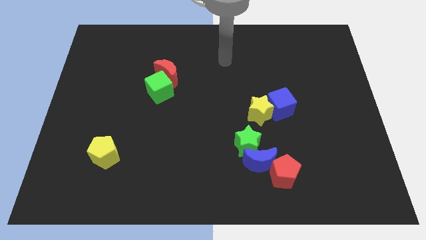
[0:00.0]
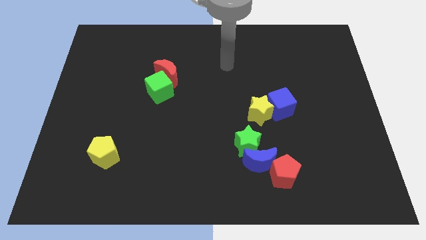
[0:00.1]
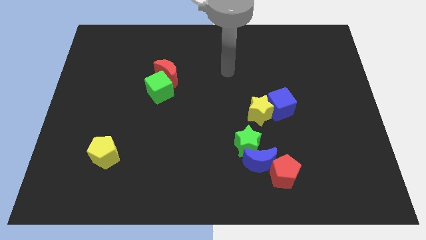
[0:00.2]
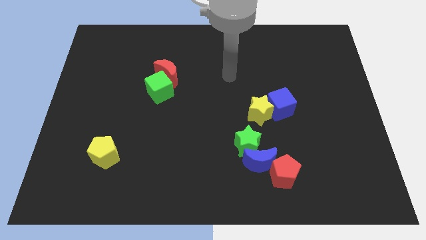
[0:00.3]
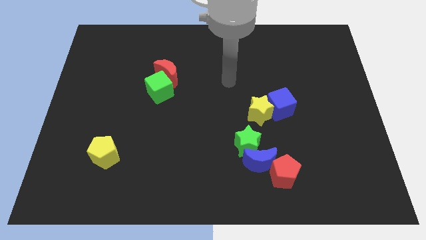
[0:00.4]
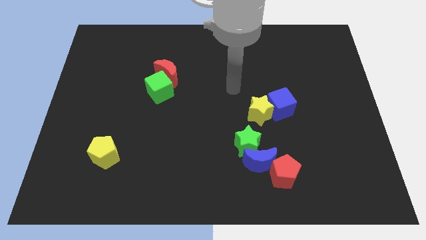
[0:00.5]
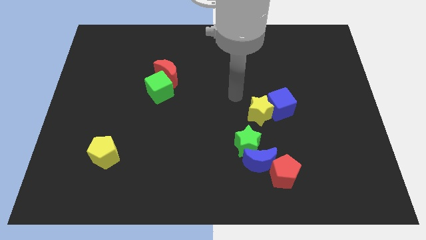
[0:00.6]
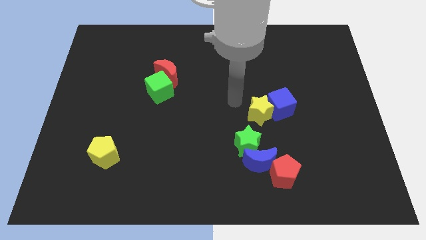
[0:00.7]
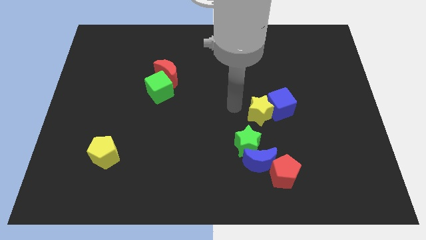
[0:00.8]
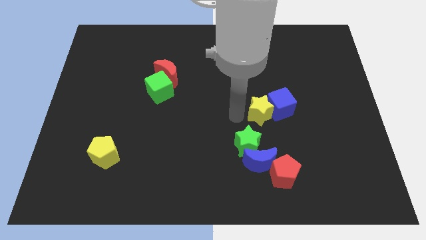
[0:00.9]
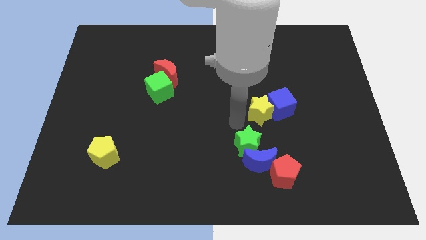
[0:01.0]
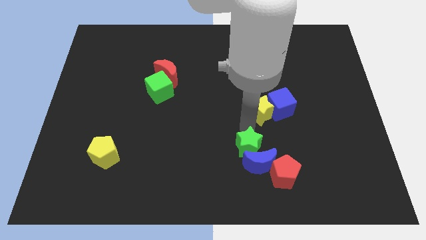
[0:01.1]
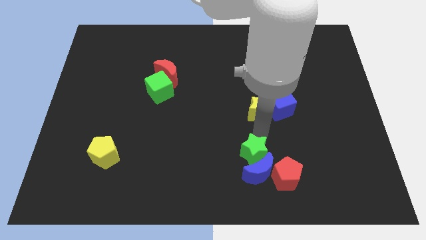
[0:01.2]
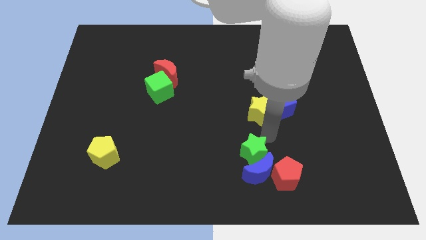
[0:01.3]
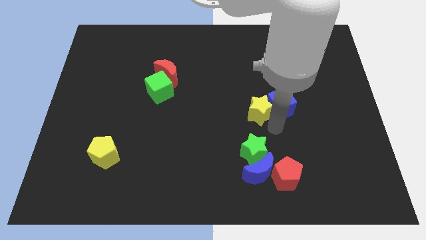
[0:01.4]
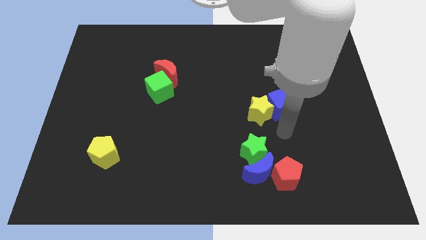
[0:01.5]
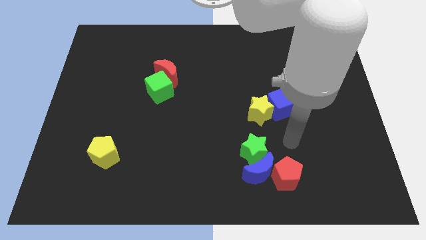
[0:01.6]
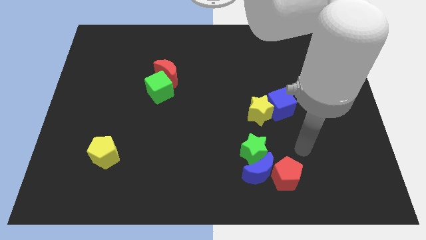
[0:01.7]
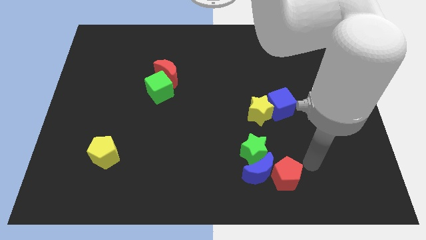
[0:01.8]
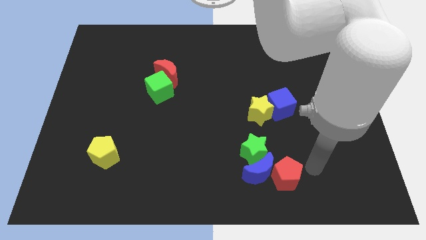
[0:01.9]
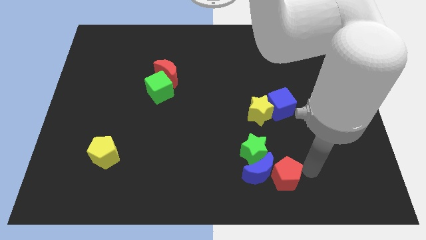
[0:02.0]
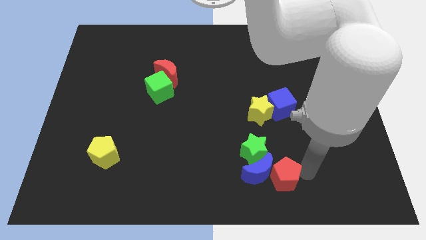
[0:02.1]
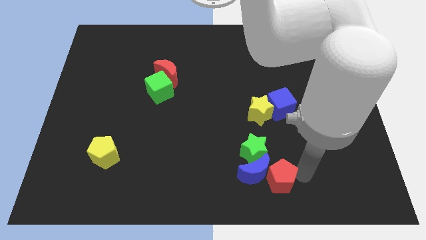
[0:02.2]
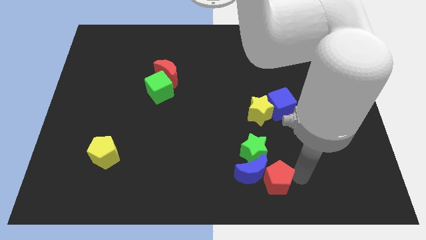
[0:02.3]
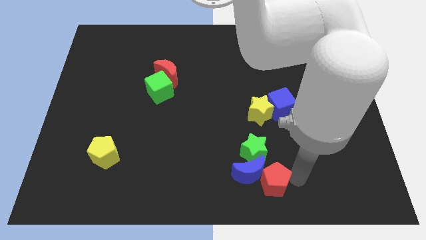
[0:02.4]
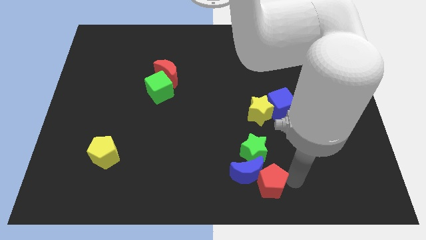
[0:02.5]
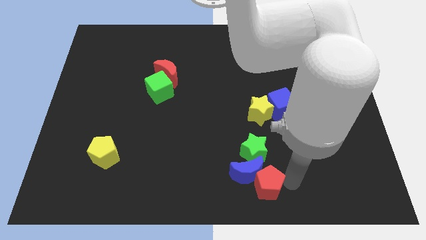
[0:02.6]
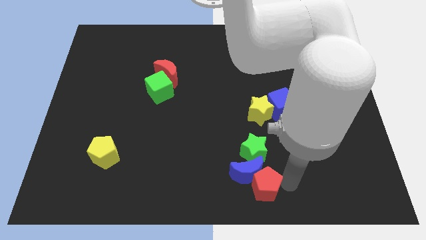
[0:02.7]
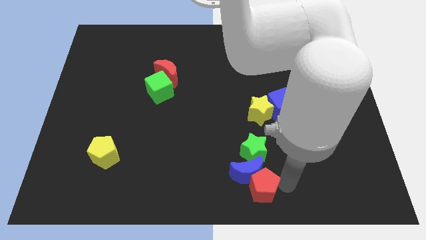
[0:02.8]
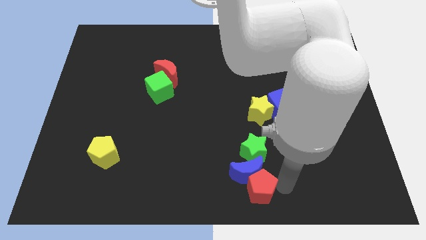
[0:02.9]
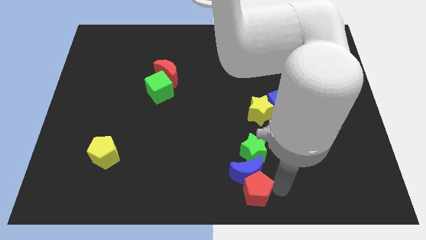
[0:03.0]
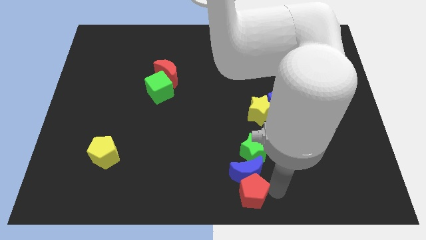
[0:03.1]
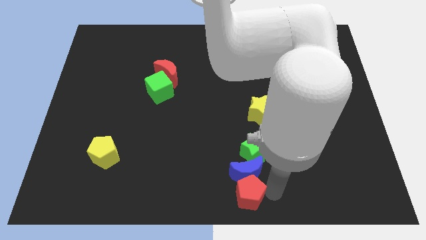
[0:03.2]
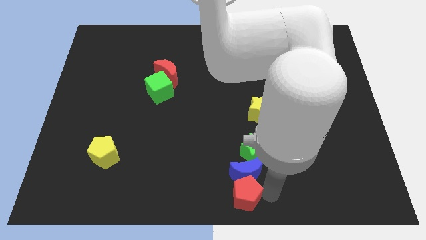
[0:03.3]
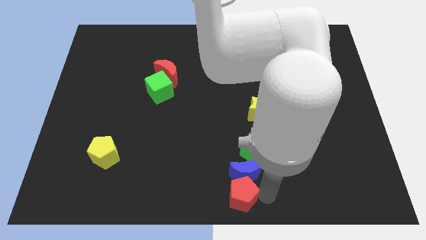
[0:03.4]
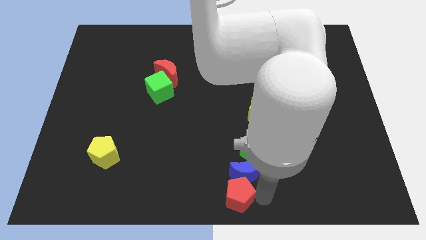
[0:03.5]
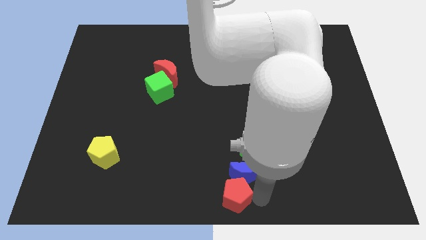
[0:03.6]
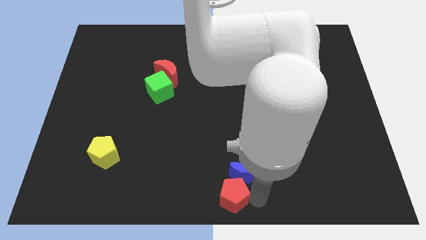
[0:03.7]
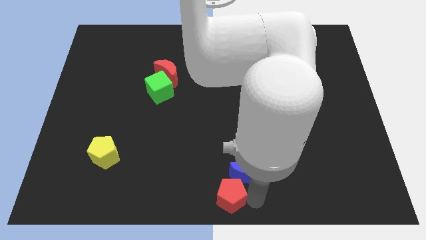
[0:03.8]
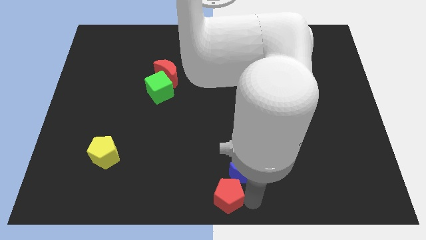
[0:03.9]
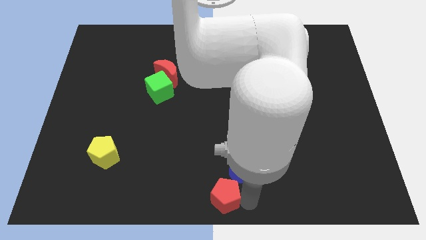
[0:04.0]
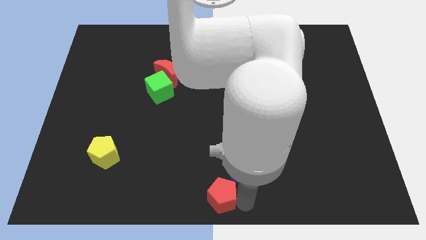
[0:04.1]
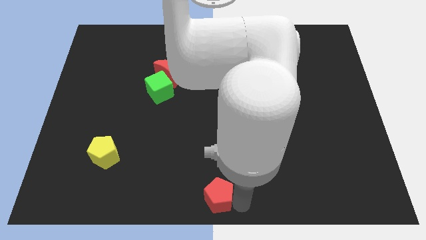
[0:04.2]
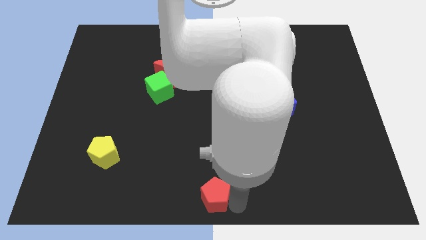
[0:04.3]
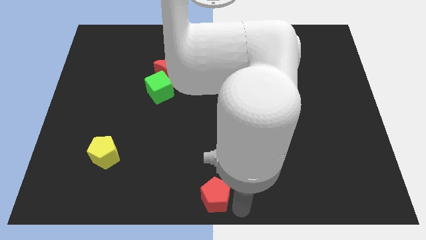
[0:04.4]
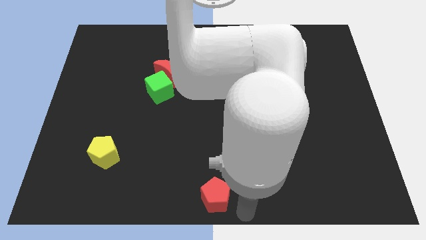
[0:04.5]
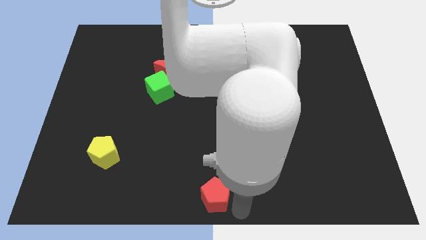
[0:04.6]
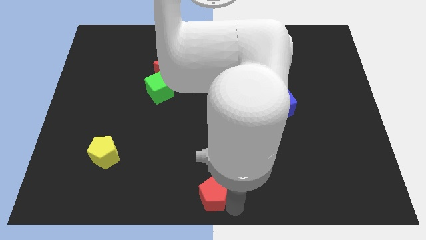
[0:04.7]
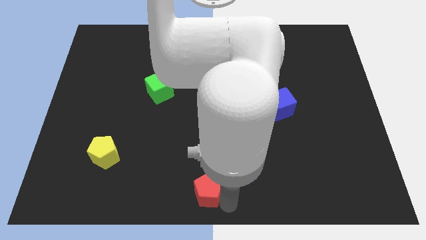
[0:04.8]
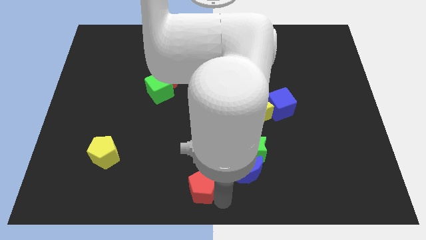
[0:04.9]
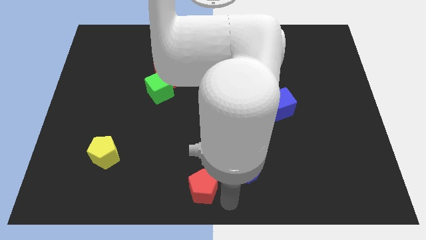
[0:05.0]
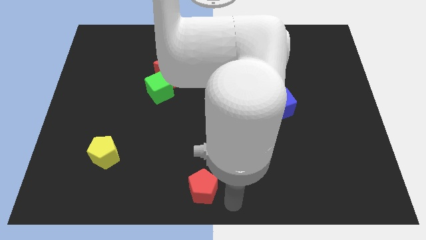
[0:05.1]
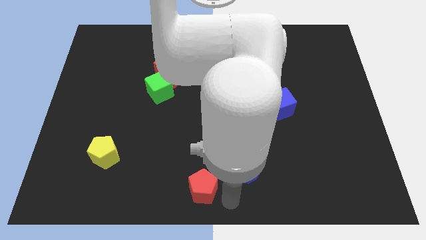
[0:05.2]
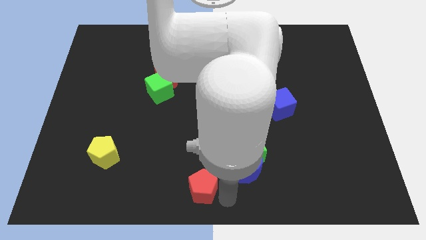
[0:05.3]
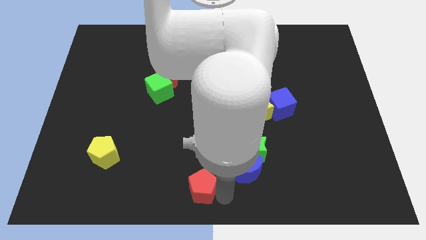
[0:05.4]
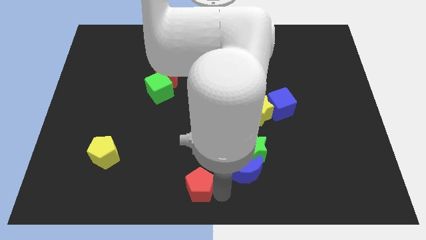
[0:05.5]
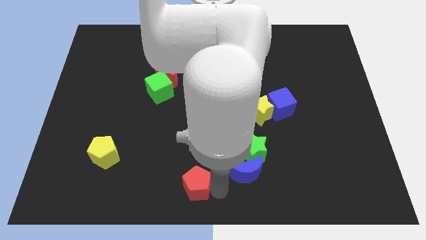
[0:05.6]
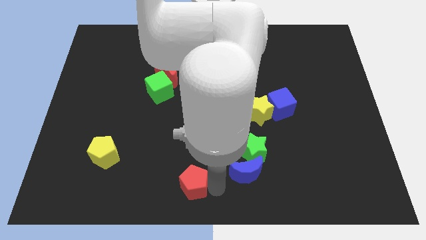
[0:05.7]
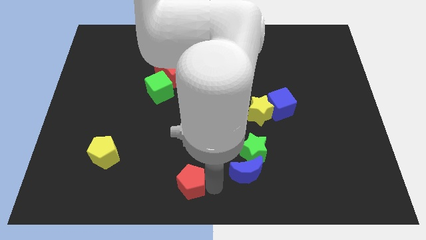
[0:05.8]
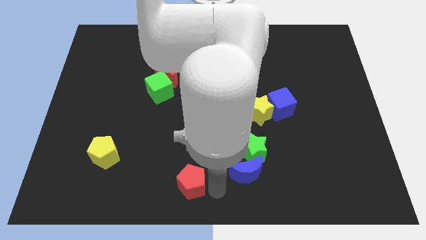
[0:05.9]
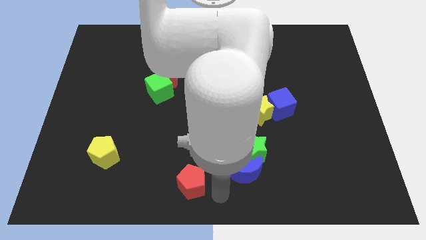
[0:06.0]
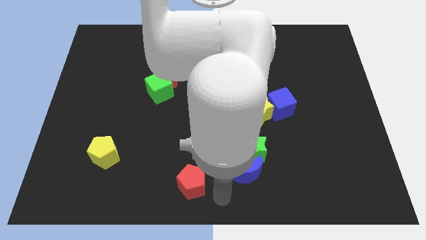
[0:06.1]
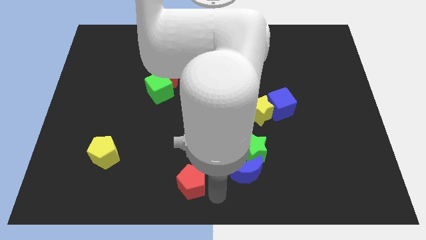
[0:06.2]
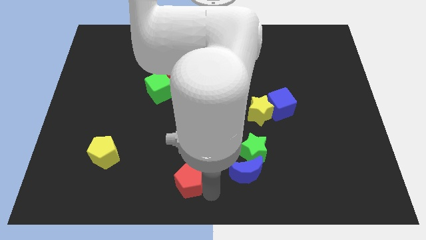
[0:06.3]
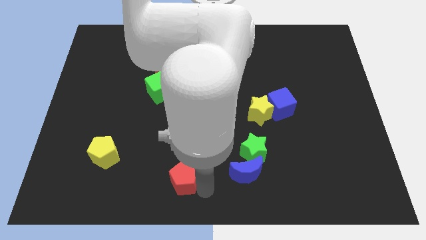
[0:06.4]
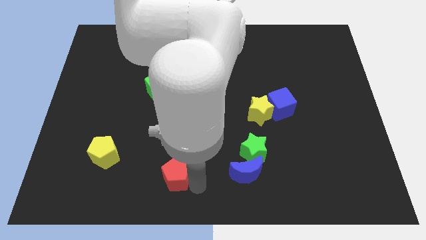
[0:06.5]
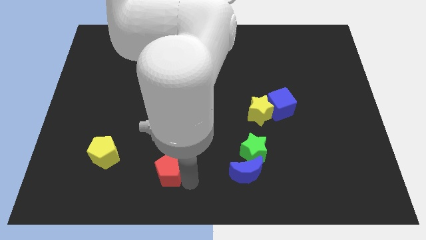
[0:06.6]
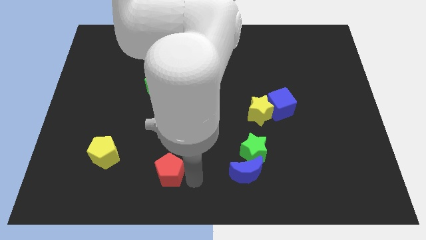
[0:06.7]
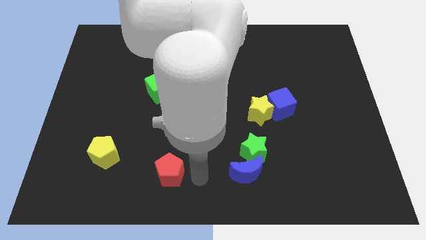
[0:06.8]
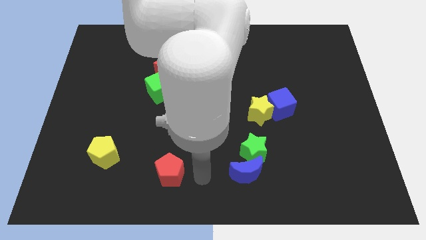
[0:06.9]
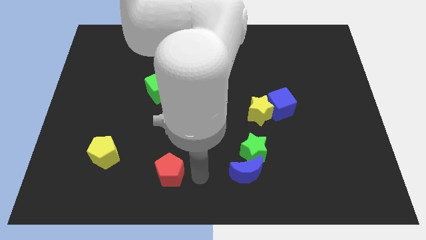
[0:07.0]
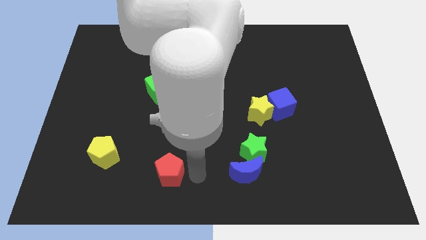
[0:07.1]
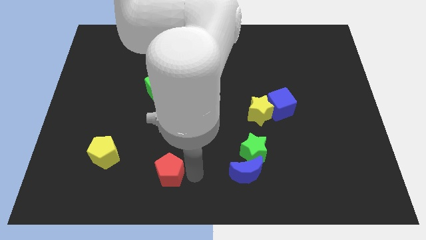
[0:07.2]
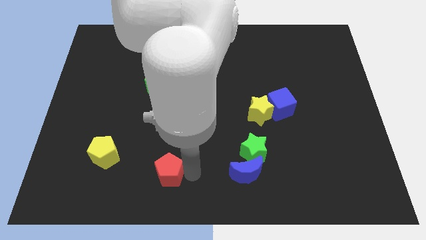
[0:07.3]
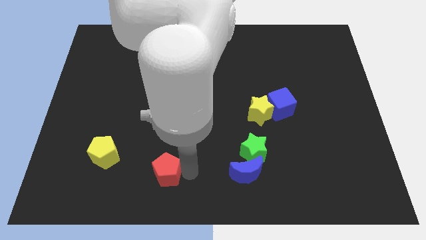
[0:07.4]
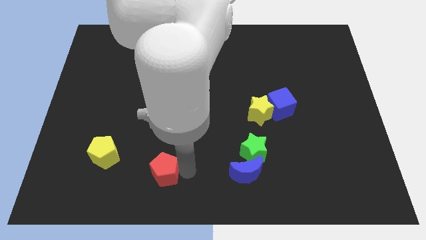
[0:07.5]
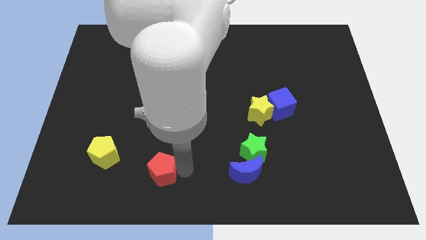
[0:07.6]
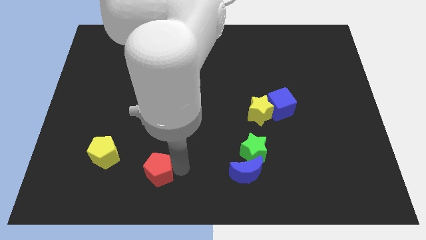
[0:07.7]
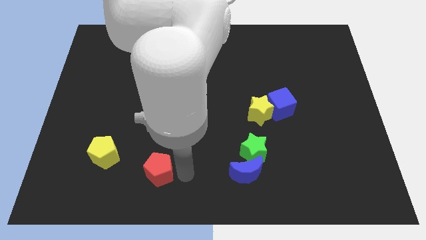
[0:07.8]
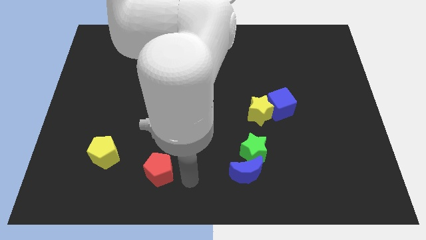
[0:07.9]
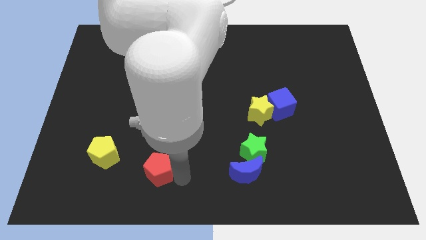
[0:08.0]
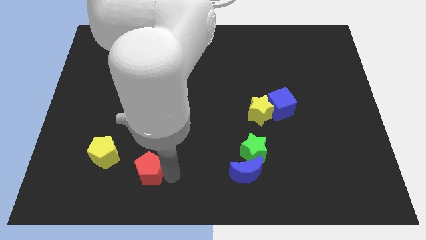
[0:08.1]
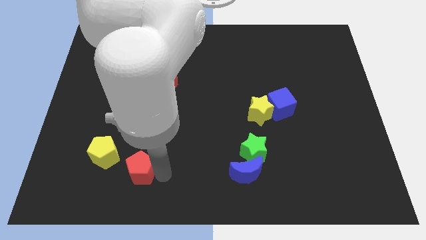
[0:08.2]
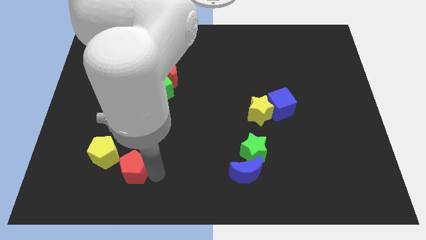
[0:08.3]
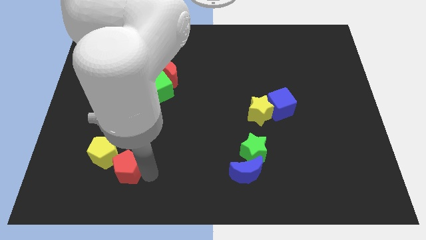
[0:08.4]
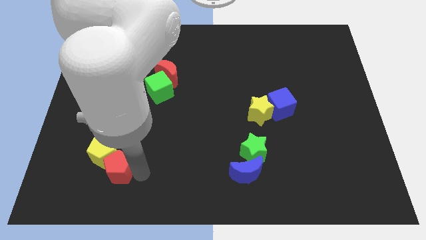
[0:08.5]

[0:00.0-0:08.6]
push the red pentagon to the yellow pentagon
